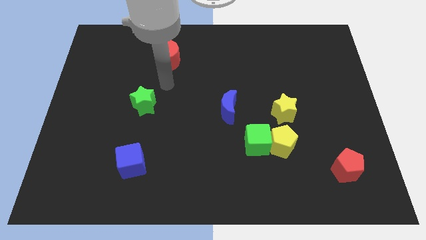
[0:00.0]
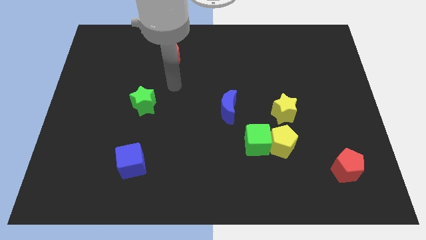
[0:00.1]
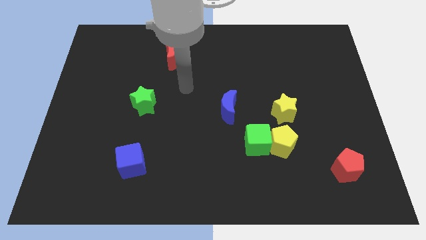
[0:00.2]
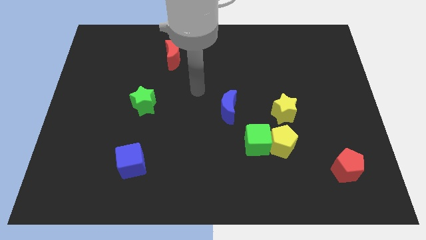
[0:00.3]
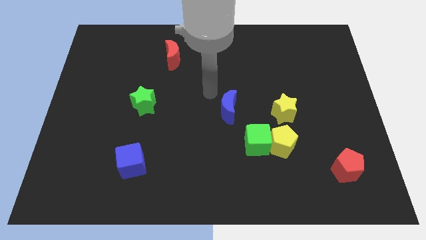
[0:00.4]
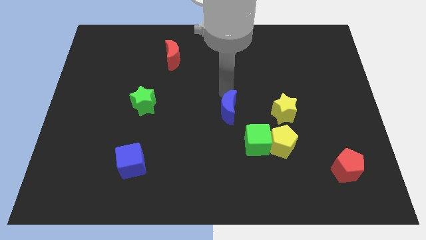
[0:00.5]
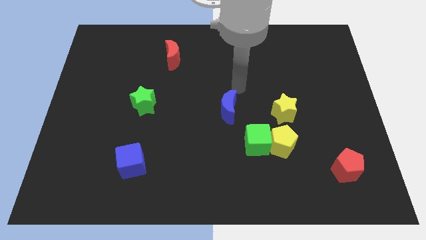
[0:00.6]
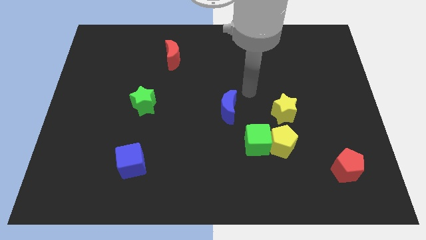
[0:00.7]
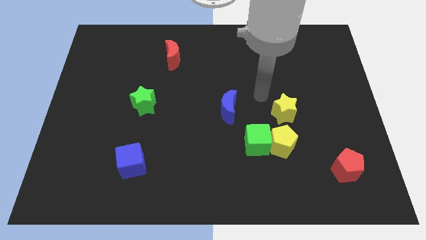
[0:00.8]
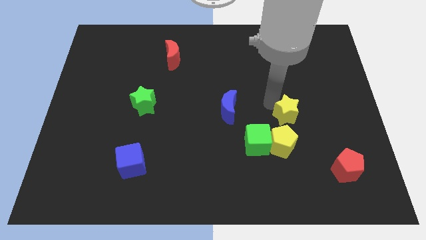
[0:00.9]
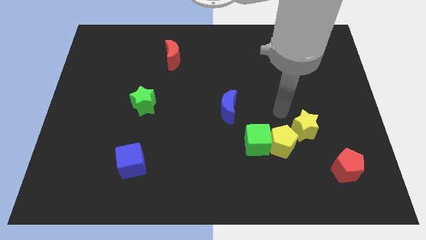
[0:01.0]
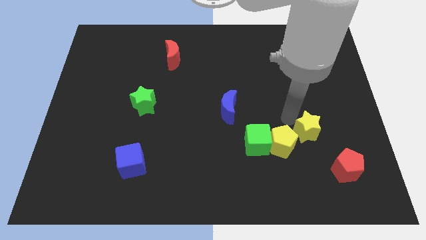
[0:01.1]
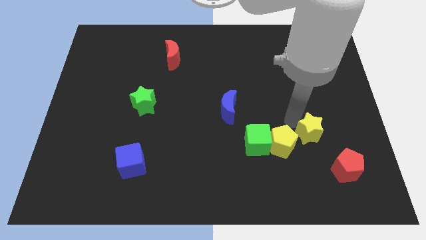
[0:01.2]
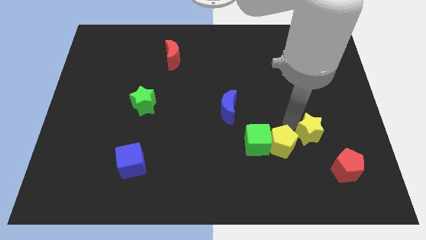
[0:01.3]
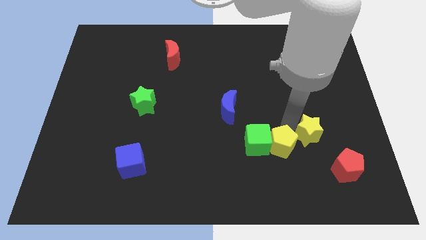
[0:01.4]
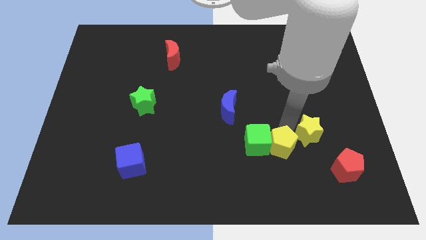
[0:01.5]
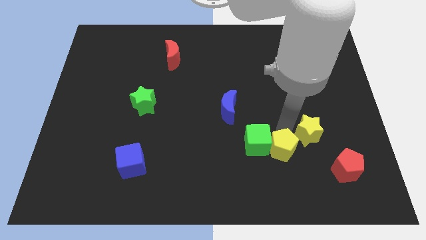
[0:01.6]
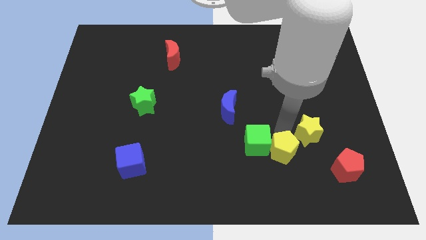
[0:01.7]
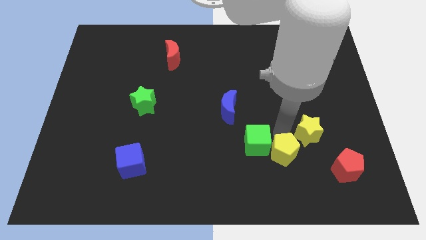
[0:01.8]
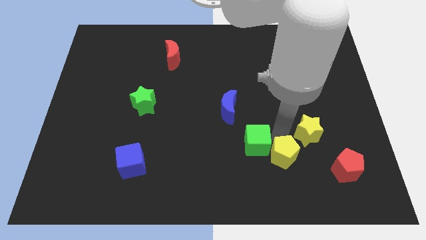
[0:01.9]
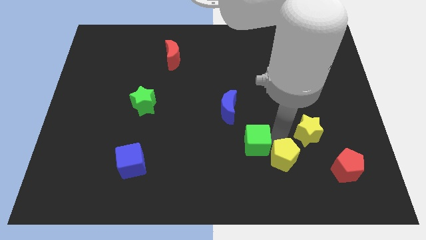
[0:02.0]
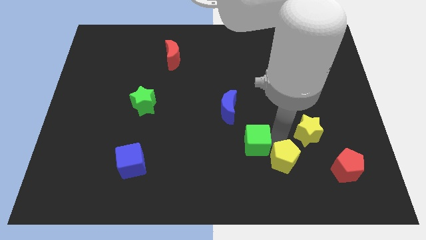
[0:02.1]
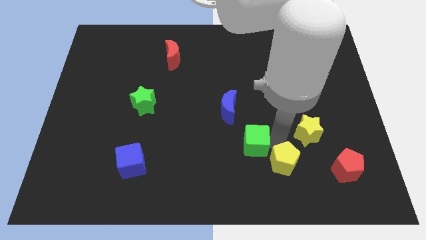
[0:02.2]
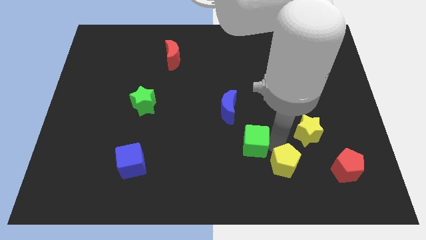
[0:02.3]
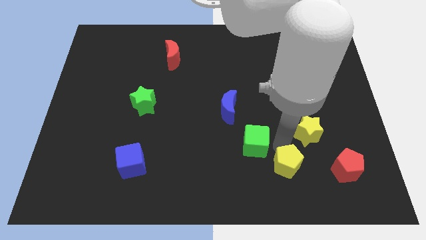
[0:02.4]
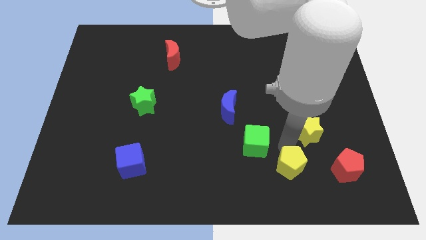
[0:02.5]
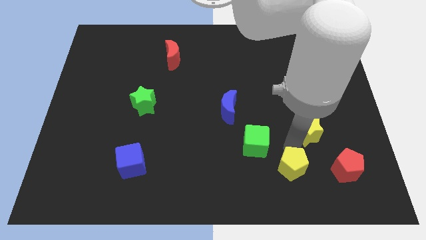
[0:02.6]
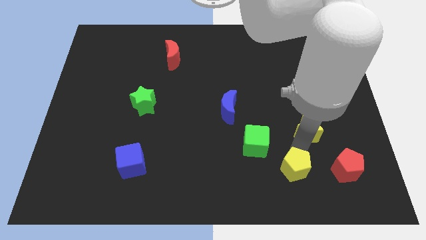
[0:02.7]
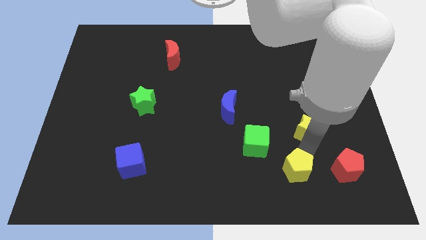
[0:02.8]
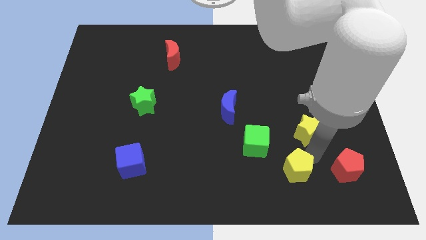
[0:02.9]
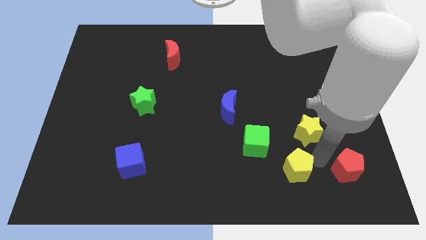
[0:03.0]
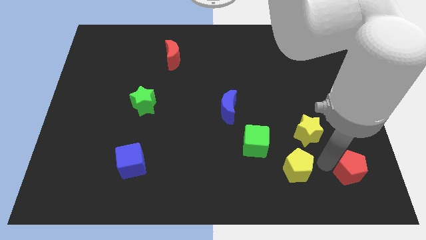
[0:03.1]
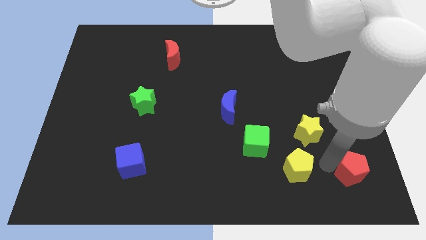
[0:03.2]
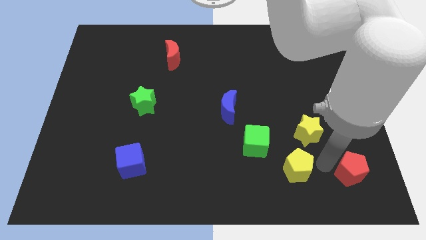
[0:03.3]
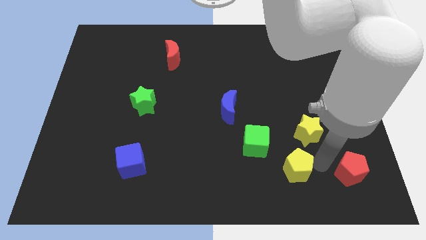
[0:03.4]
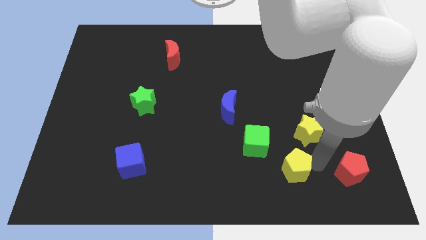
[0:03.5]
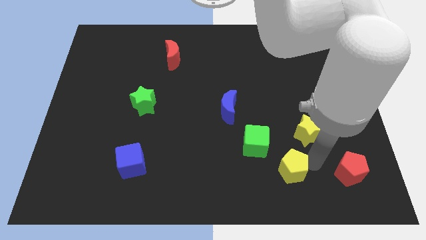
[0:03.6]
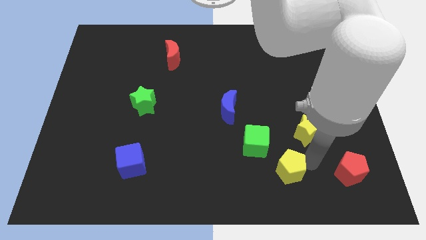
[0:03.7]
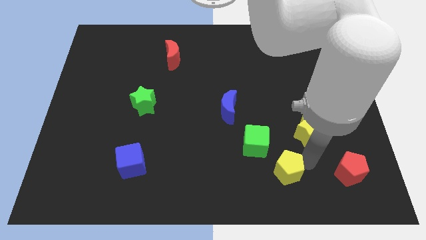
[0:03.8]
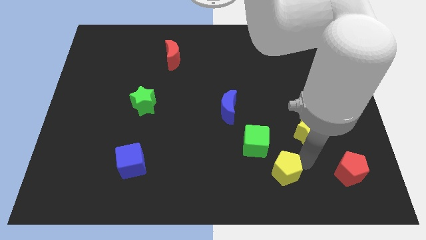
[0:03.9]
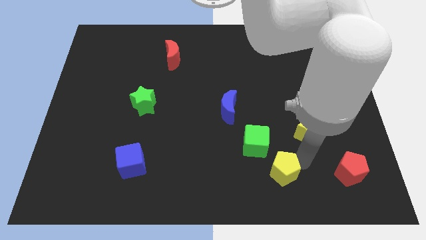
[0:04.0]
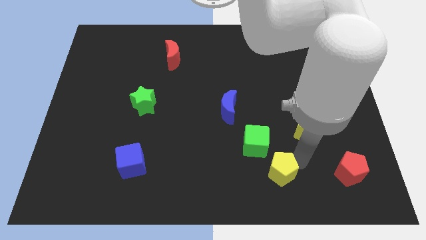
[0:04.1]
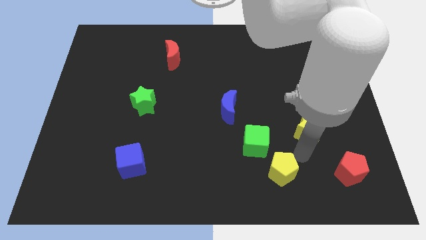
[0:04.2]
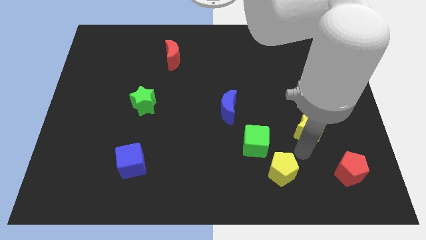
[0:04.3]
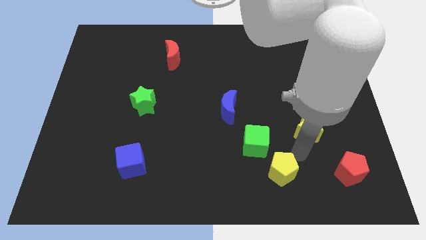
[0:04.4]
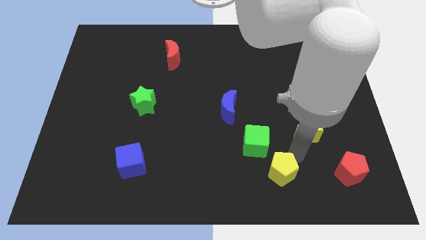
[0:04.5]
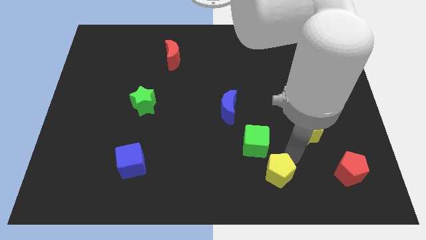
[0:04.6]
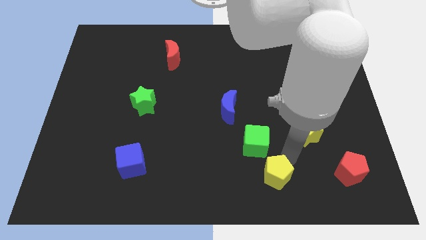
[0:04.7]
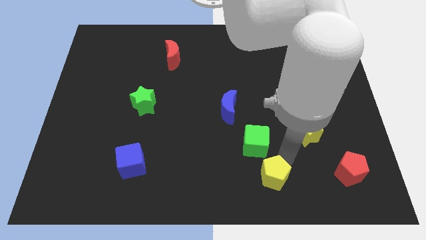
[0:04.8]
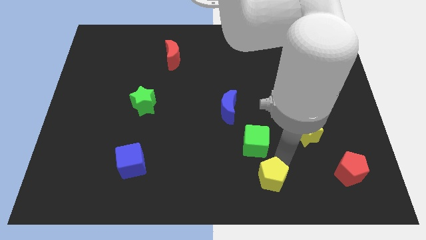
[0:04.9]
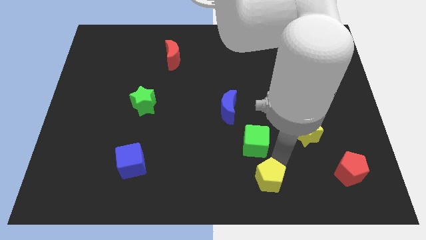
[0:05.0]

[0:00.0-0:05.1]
put the yellow pentagon to the bottom side

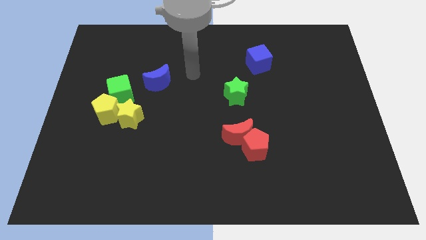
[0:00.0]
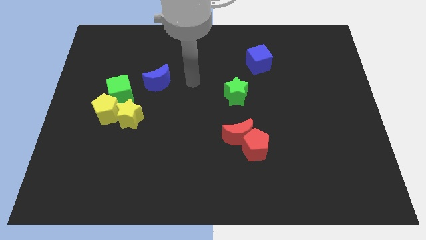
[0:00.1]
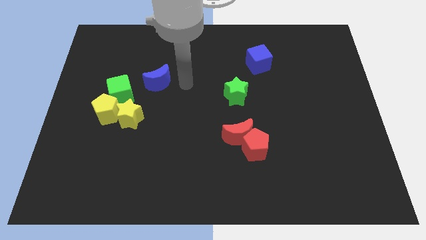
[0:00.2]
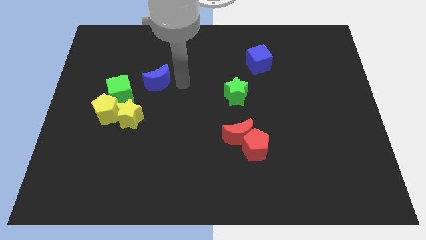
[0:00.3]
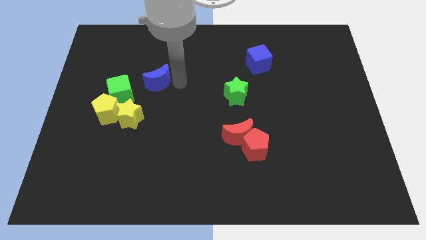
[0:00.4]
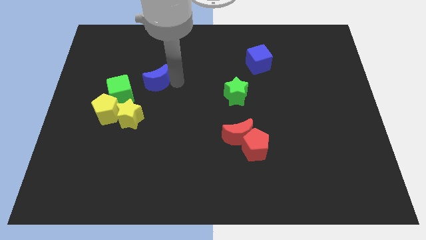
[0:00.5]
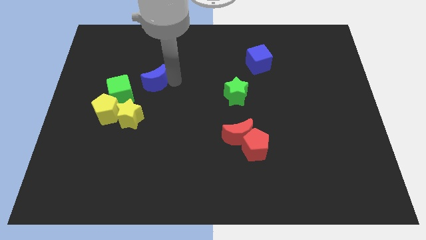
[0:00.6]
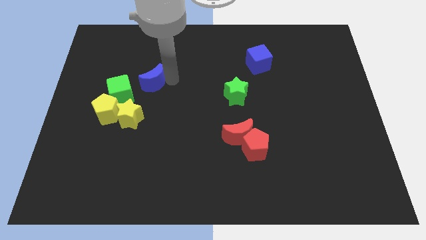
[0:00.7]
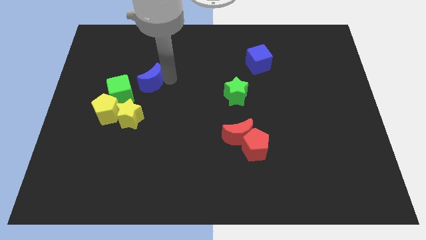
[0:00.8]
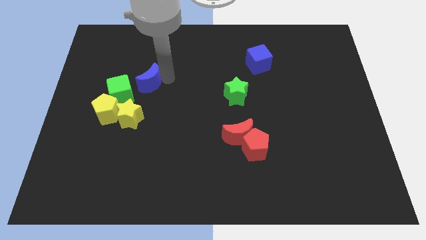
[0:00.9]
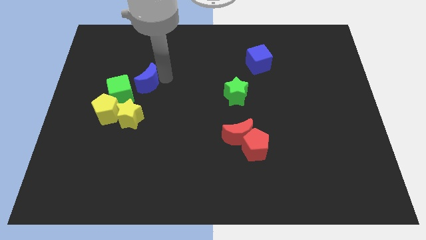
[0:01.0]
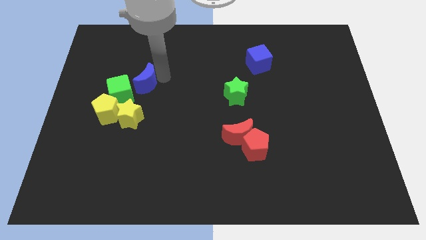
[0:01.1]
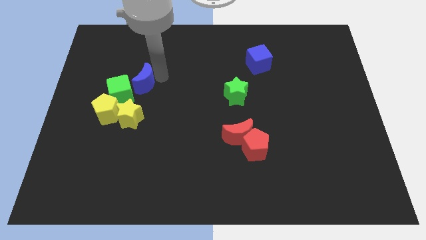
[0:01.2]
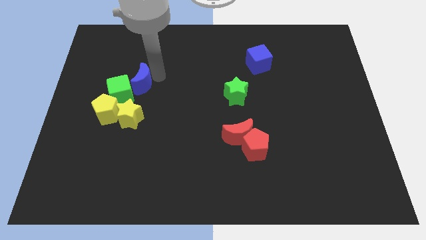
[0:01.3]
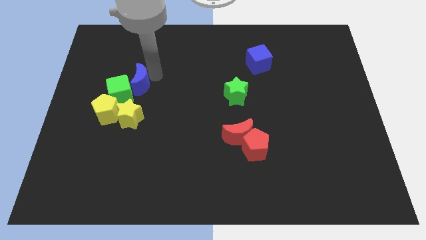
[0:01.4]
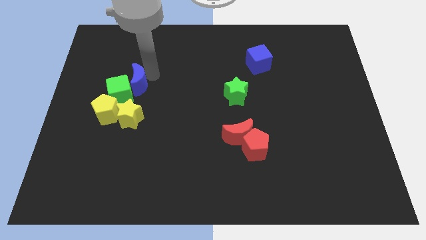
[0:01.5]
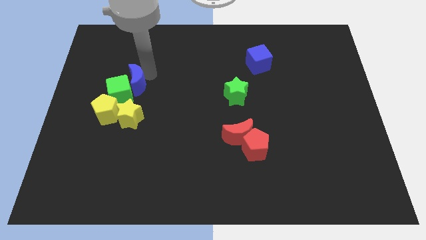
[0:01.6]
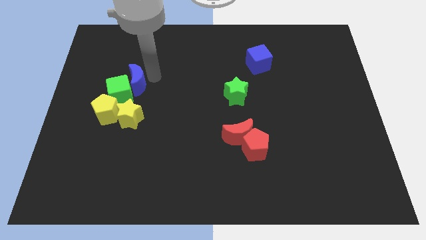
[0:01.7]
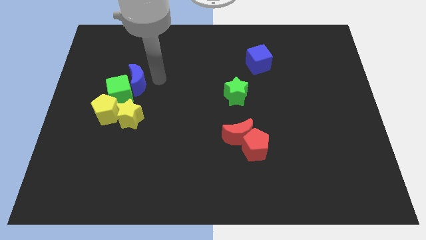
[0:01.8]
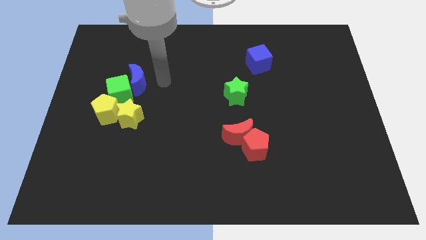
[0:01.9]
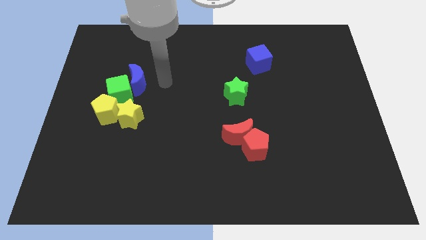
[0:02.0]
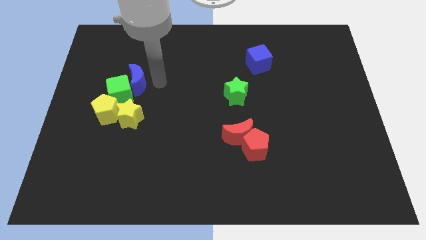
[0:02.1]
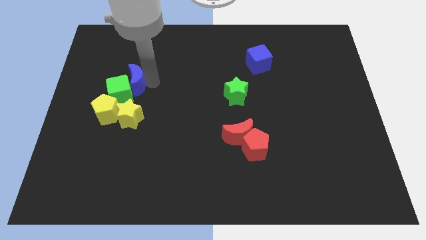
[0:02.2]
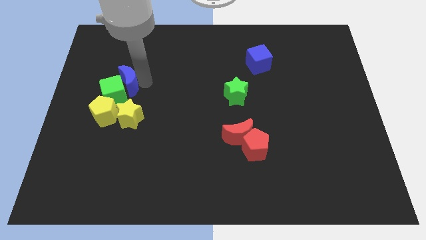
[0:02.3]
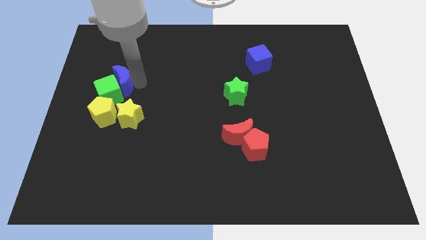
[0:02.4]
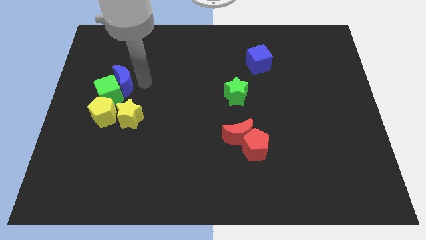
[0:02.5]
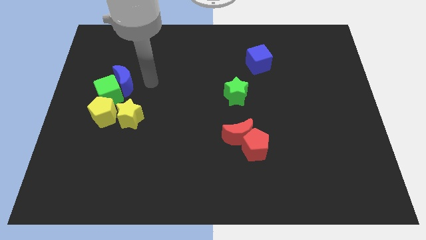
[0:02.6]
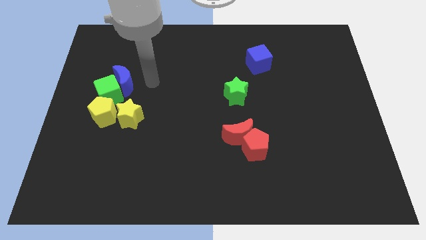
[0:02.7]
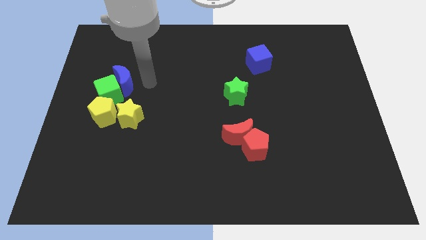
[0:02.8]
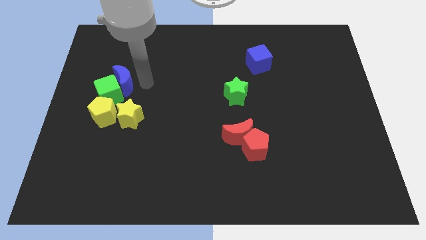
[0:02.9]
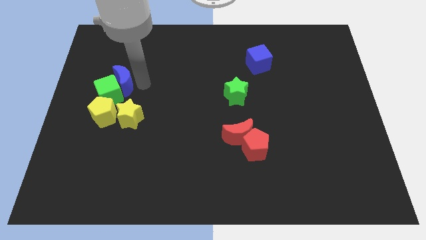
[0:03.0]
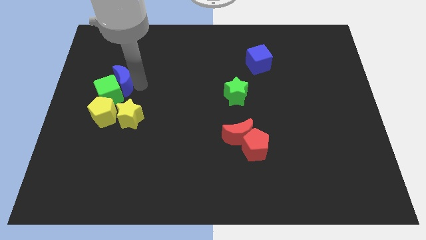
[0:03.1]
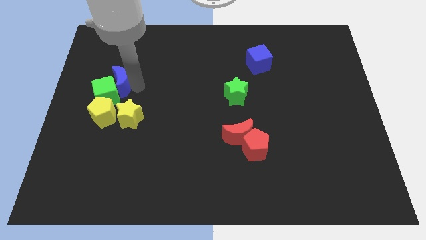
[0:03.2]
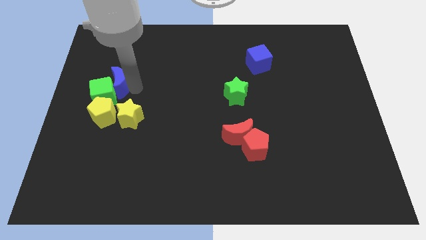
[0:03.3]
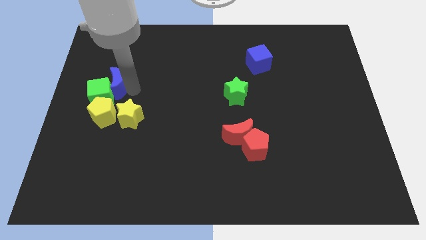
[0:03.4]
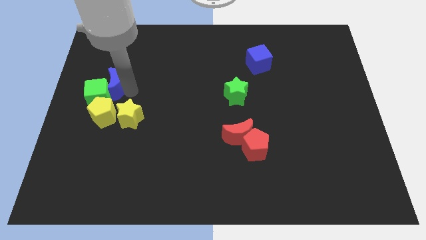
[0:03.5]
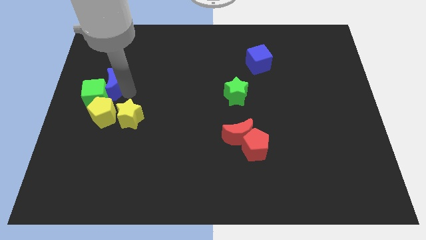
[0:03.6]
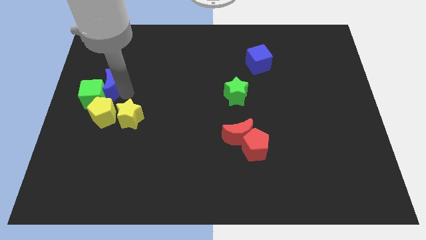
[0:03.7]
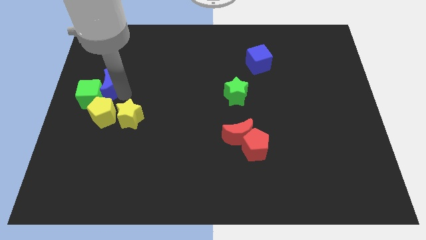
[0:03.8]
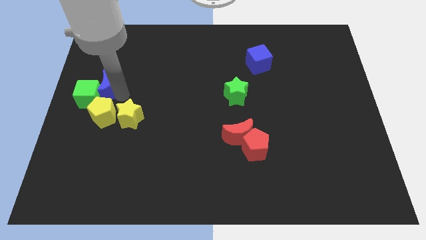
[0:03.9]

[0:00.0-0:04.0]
put the blue moon to the center left
